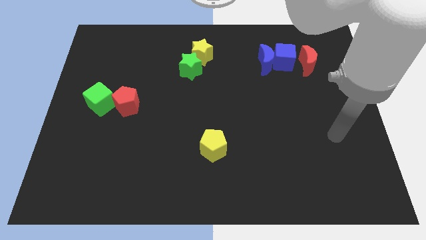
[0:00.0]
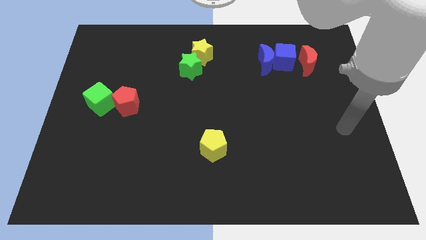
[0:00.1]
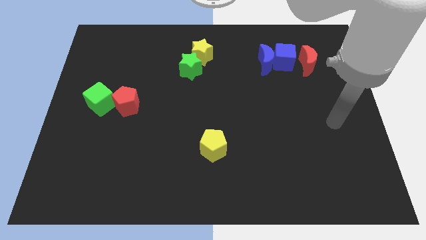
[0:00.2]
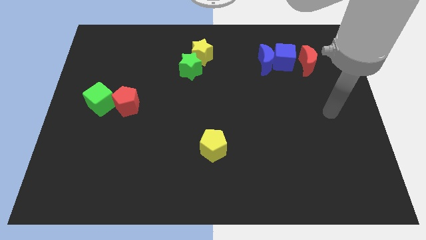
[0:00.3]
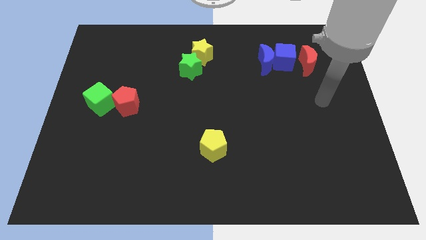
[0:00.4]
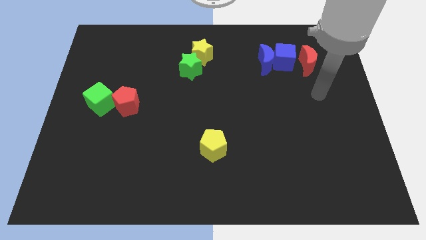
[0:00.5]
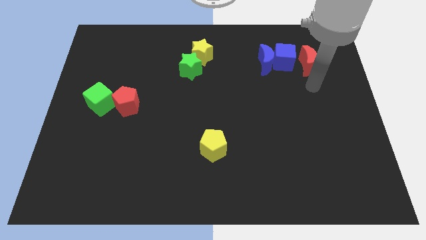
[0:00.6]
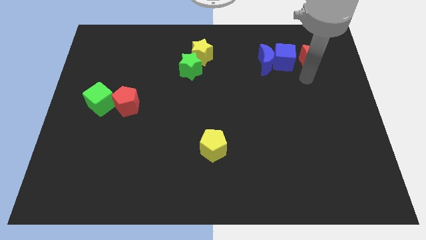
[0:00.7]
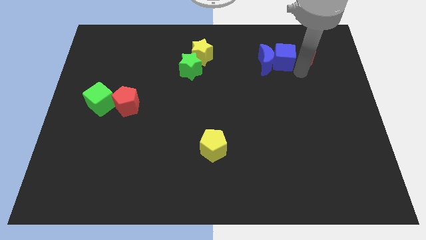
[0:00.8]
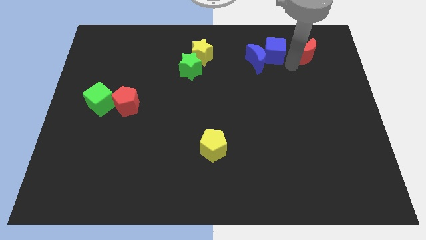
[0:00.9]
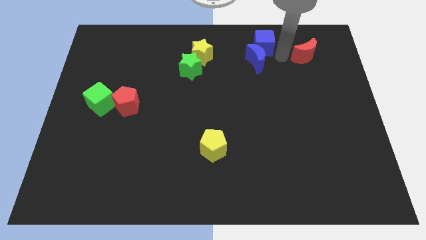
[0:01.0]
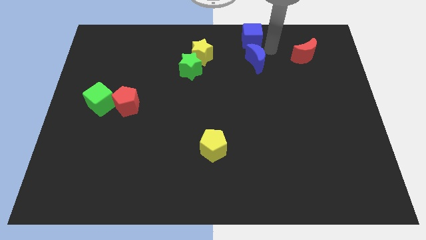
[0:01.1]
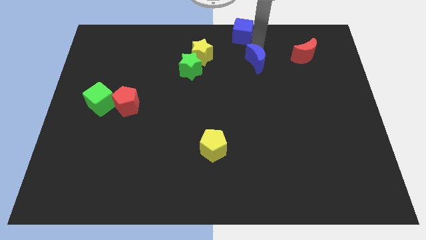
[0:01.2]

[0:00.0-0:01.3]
separate the blue moon from the blue cube

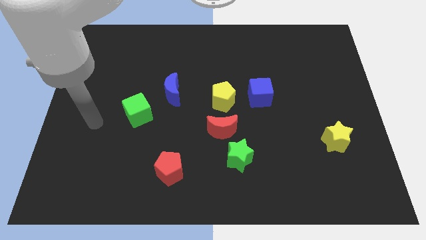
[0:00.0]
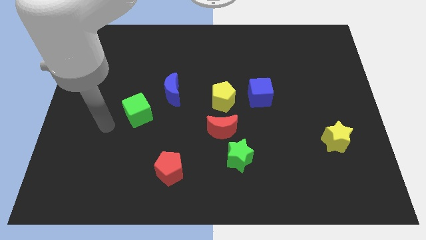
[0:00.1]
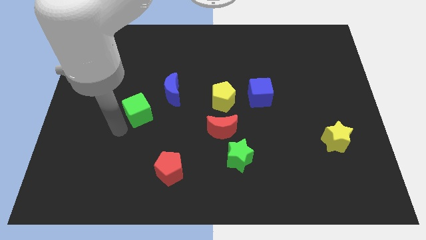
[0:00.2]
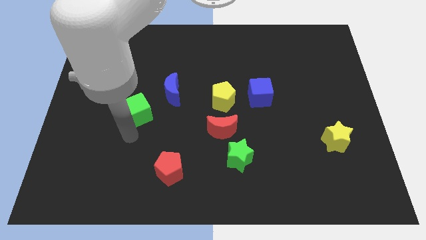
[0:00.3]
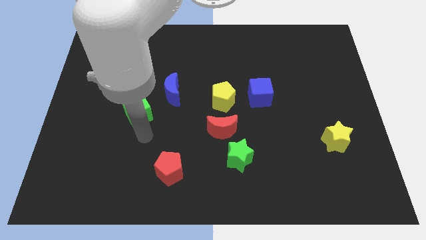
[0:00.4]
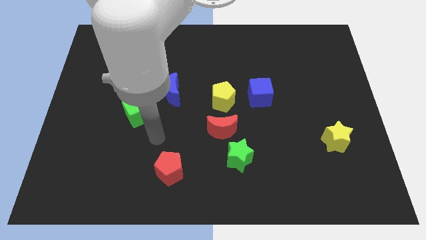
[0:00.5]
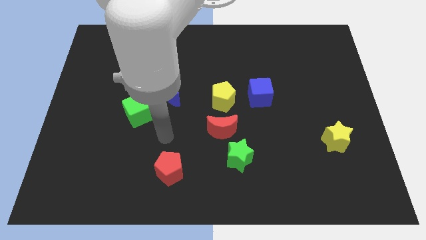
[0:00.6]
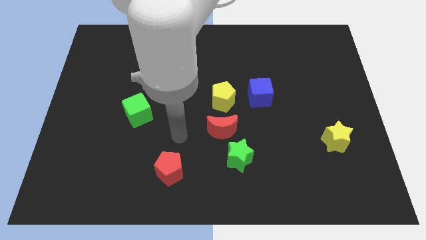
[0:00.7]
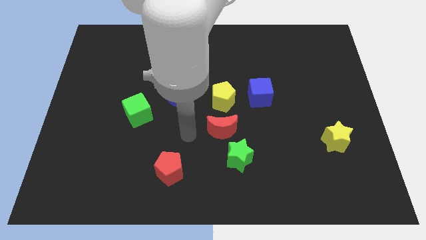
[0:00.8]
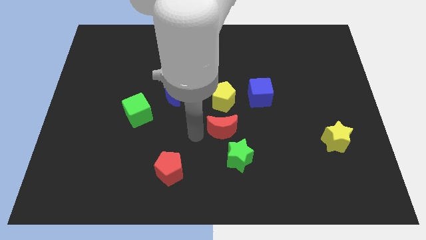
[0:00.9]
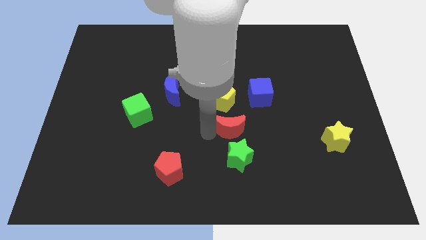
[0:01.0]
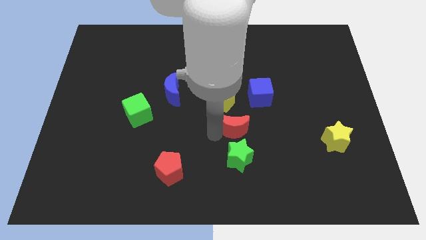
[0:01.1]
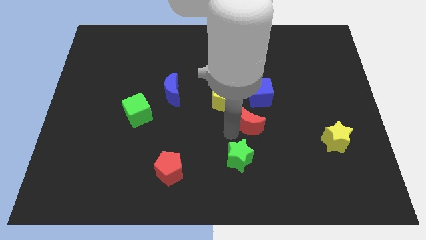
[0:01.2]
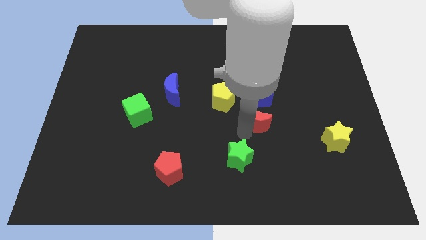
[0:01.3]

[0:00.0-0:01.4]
pull the green star apart from the red moon

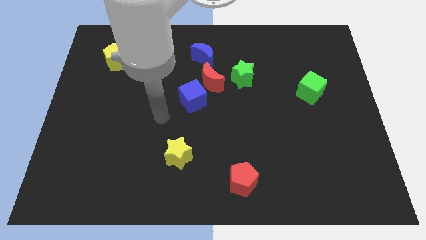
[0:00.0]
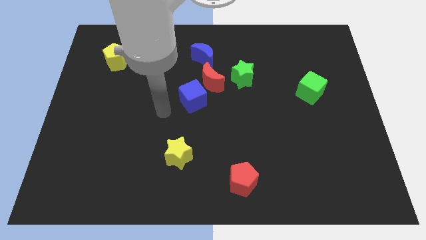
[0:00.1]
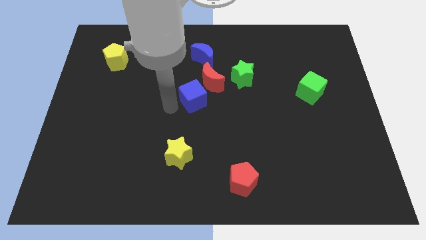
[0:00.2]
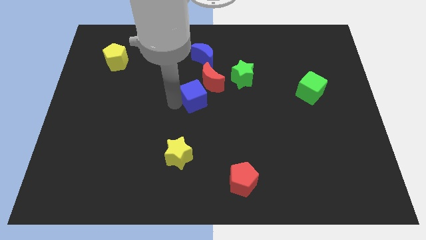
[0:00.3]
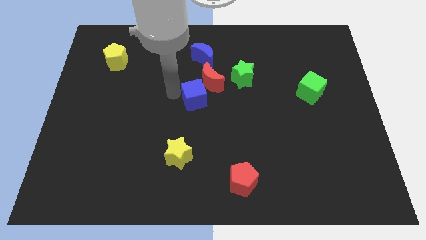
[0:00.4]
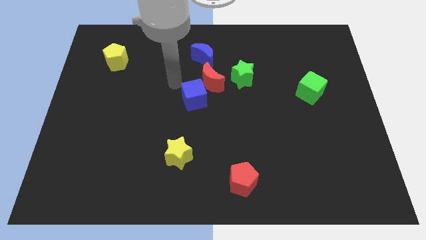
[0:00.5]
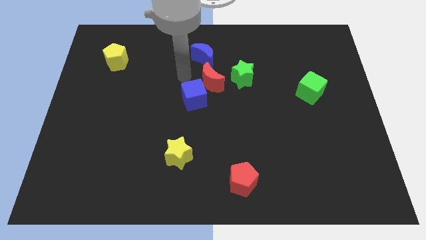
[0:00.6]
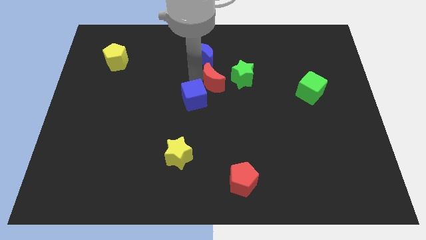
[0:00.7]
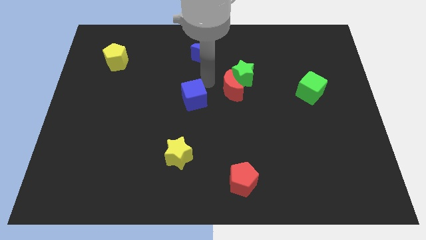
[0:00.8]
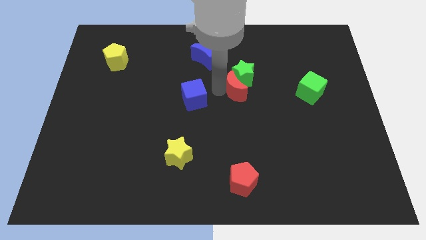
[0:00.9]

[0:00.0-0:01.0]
pull the blue cube apart from the red moon

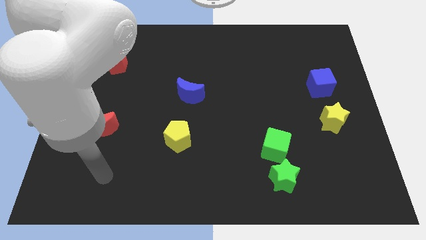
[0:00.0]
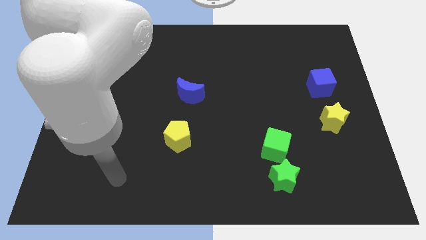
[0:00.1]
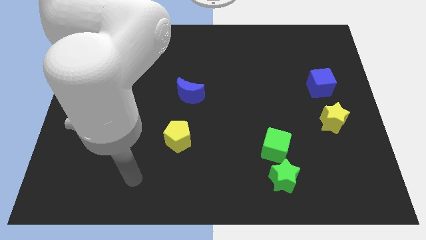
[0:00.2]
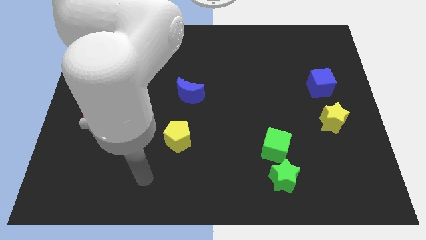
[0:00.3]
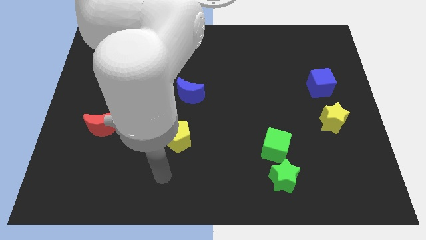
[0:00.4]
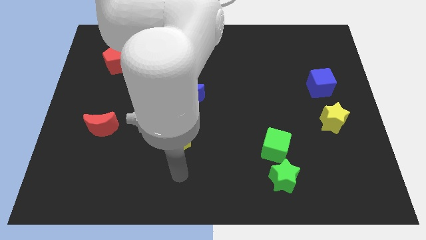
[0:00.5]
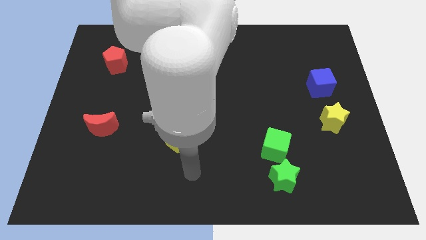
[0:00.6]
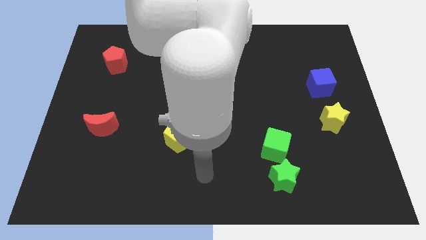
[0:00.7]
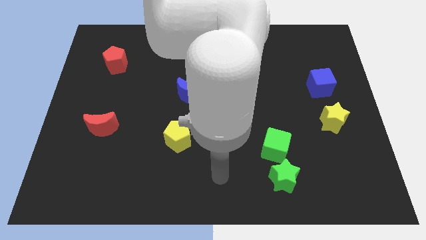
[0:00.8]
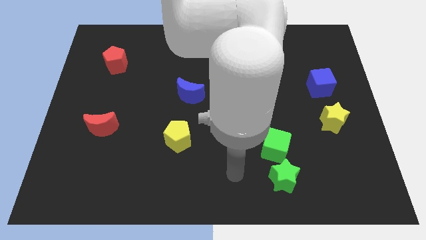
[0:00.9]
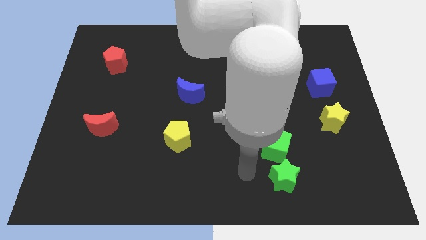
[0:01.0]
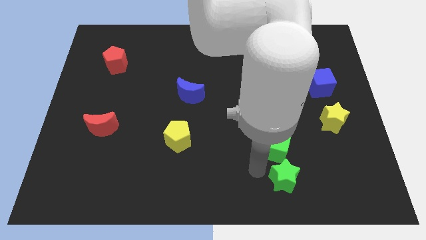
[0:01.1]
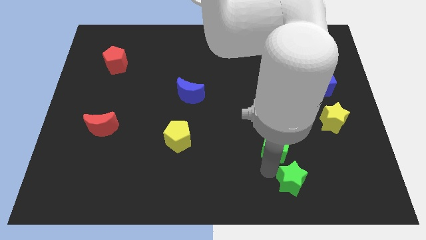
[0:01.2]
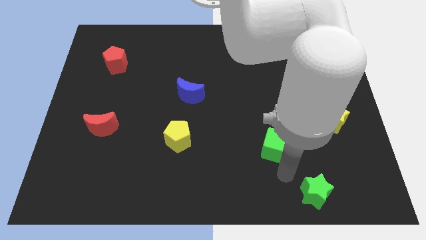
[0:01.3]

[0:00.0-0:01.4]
pull the green cube apart from the green star

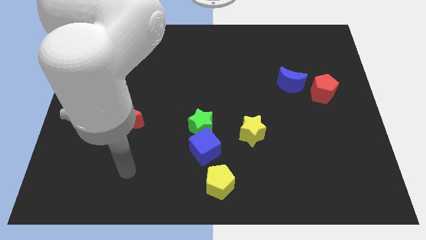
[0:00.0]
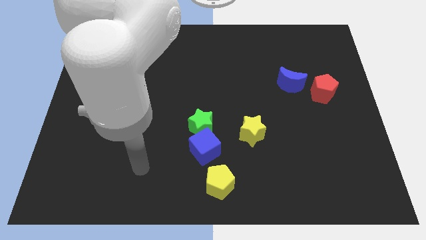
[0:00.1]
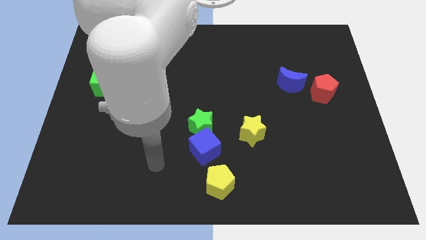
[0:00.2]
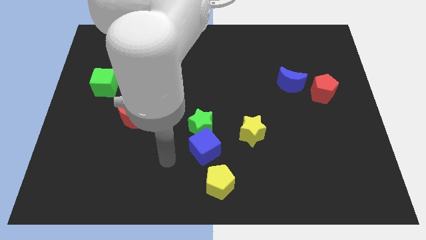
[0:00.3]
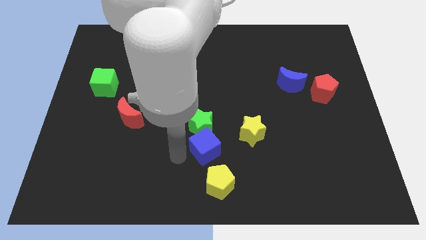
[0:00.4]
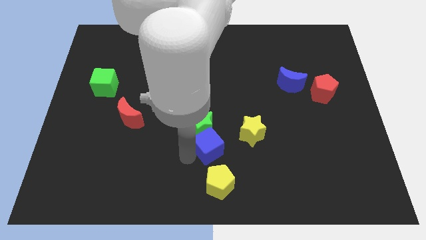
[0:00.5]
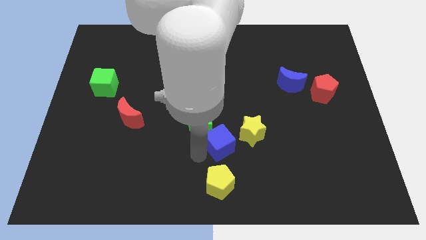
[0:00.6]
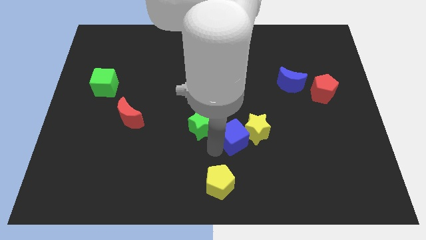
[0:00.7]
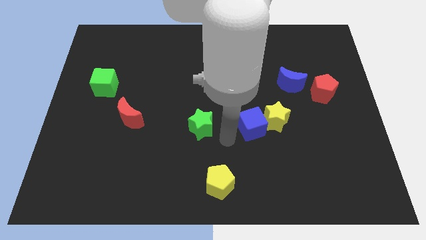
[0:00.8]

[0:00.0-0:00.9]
move the green star away from the blue cube

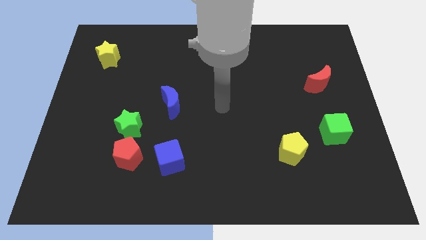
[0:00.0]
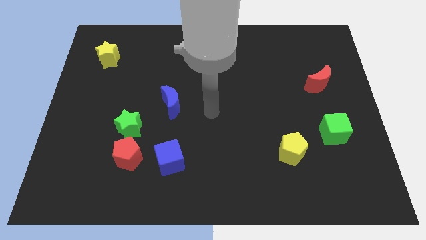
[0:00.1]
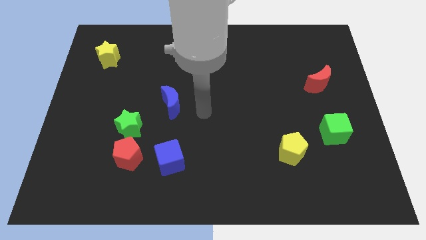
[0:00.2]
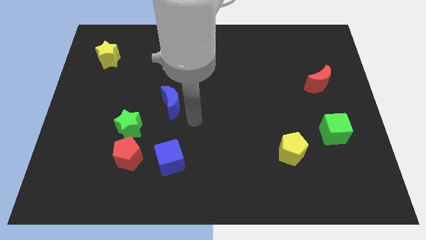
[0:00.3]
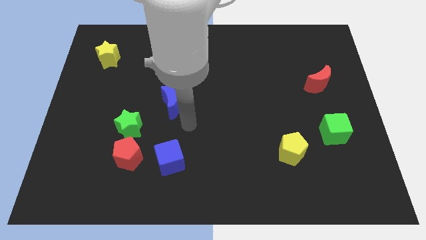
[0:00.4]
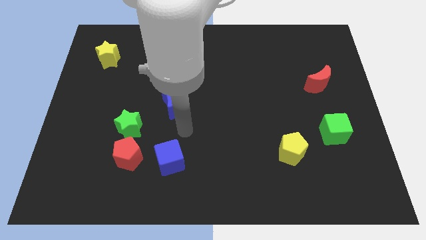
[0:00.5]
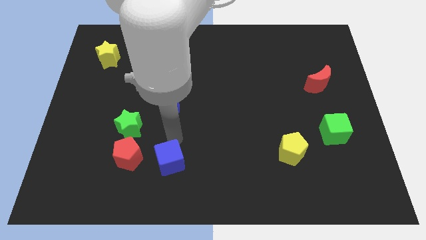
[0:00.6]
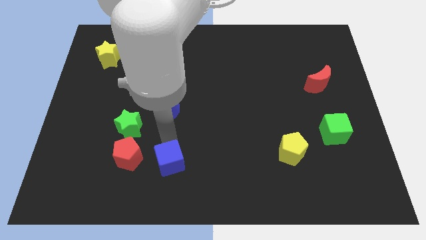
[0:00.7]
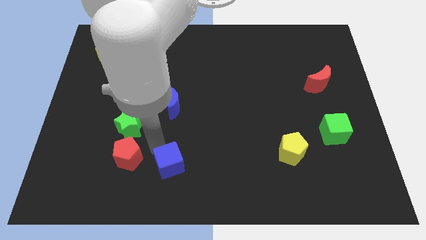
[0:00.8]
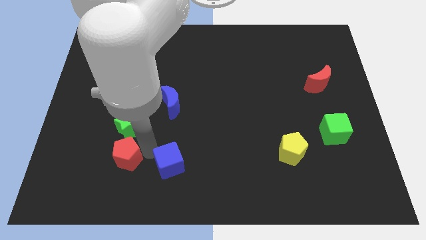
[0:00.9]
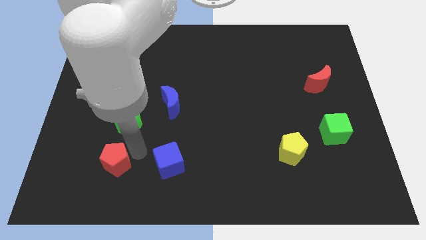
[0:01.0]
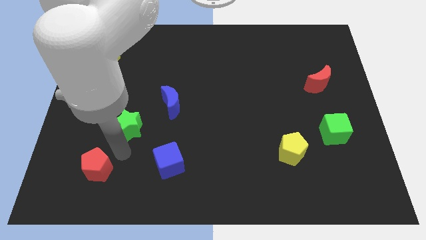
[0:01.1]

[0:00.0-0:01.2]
pull the green star apart from the red pentagon

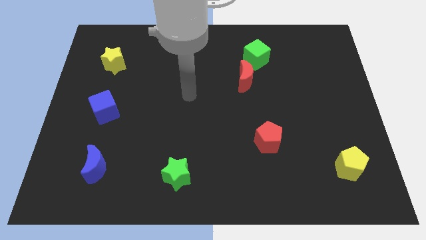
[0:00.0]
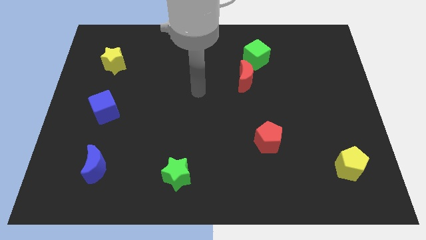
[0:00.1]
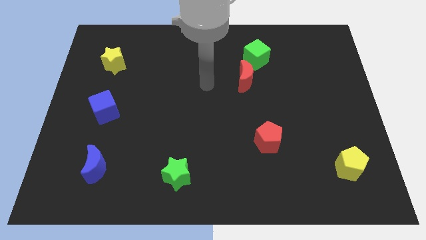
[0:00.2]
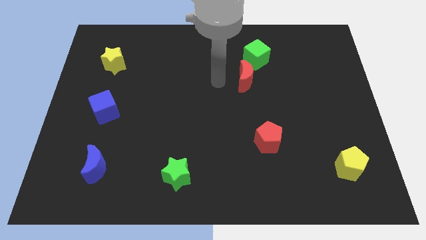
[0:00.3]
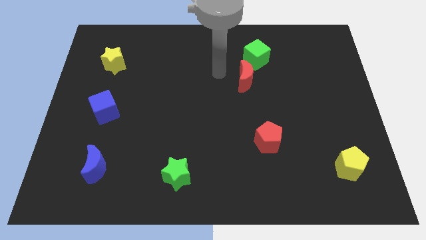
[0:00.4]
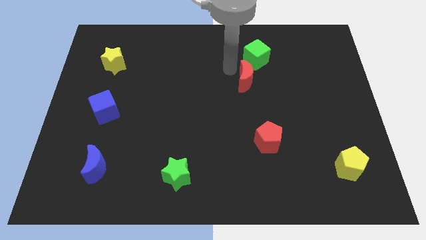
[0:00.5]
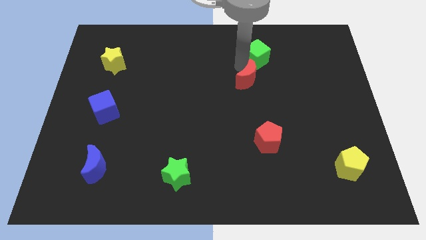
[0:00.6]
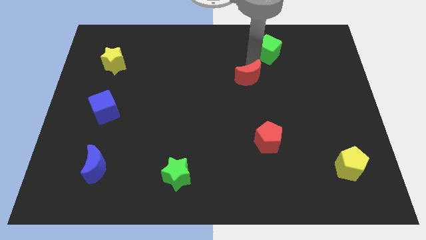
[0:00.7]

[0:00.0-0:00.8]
pull the red moon apart from the green cube

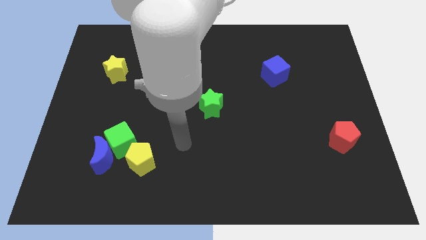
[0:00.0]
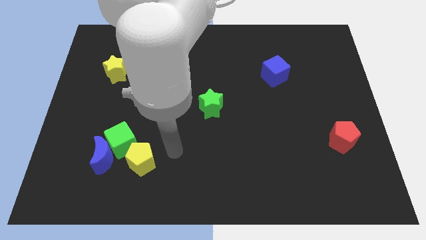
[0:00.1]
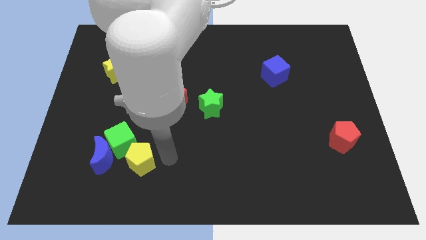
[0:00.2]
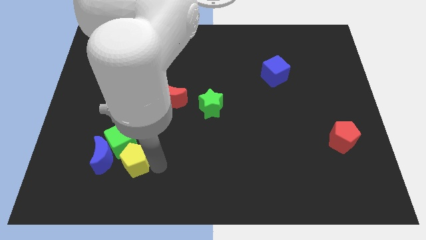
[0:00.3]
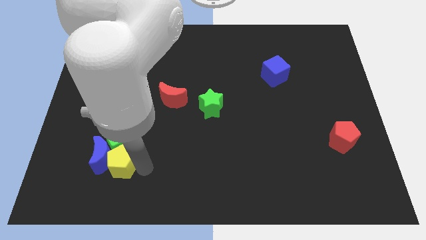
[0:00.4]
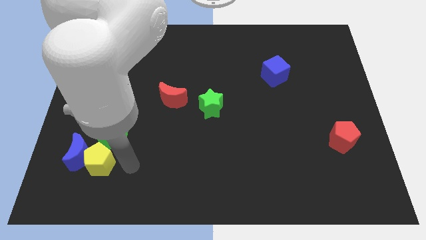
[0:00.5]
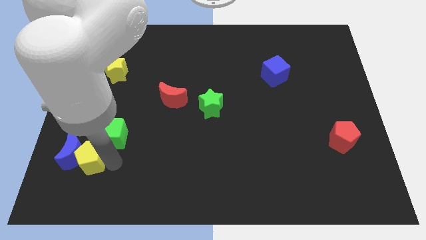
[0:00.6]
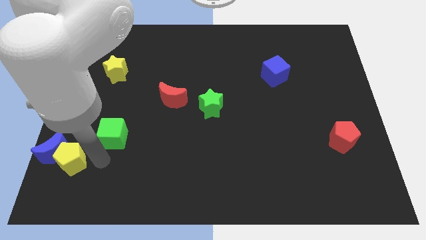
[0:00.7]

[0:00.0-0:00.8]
pull the green cube apart from the blue moon and yellow pentagon

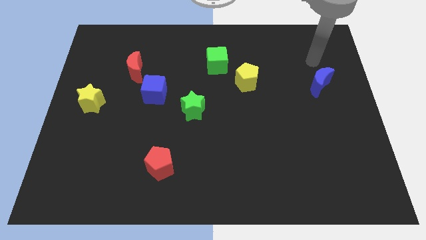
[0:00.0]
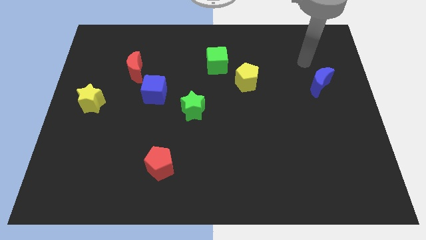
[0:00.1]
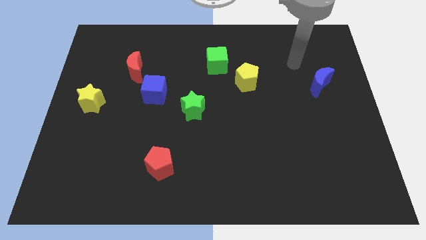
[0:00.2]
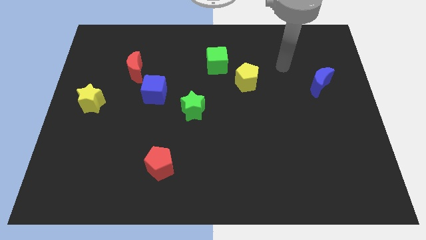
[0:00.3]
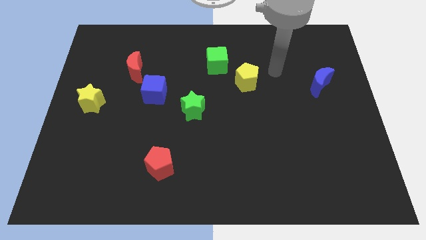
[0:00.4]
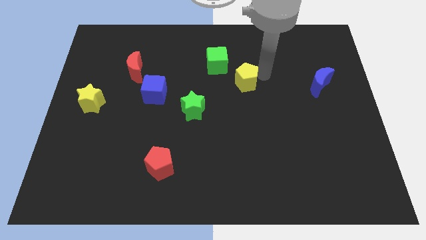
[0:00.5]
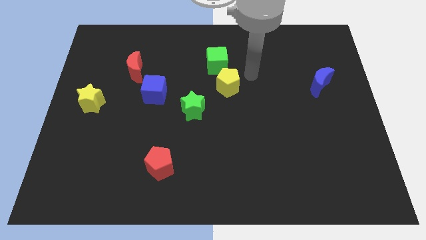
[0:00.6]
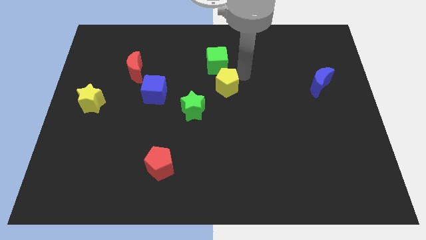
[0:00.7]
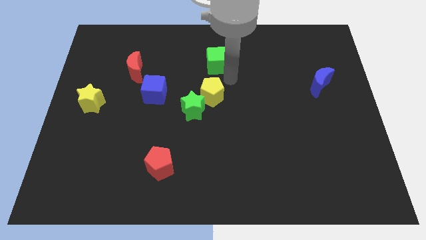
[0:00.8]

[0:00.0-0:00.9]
move the green cube away from the yellow pentagon
